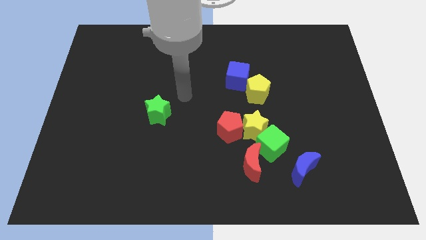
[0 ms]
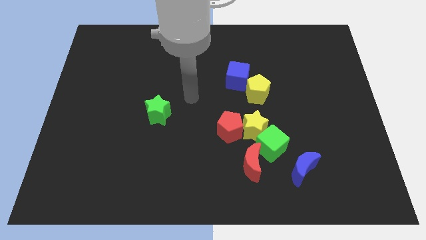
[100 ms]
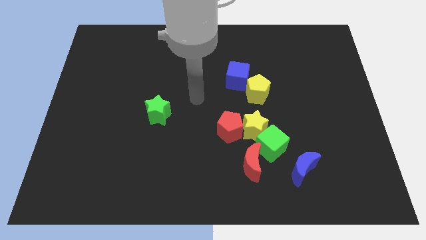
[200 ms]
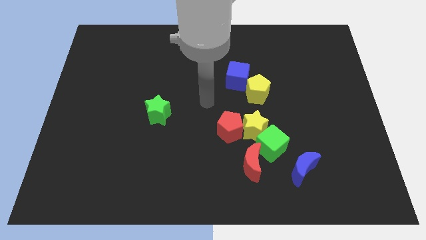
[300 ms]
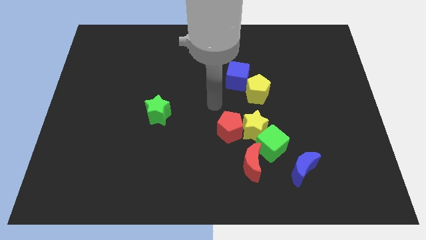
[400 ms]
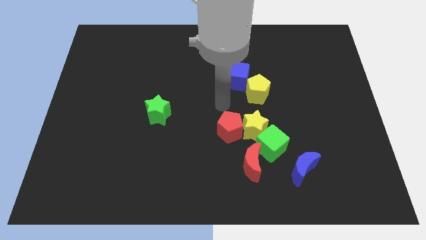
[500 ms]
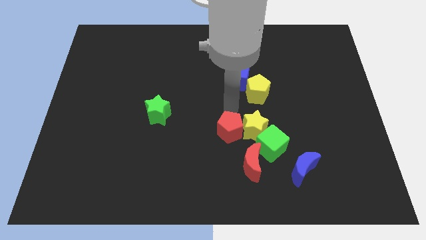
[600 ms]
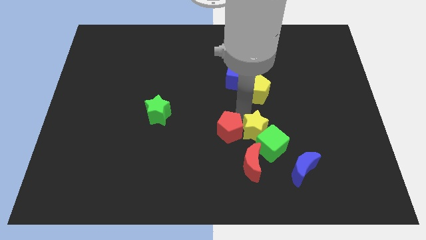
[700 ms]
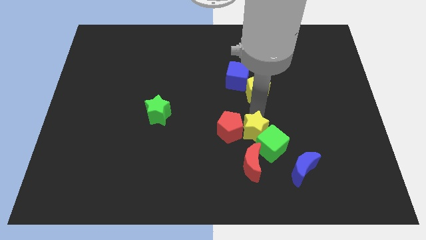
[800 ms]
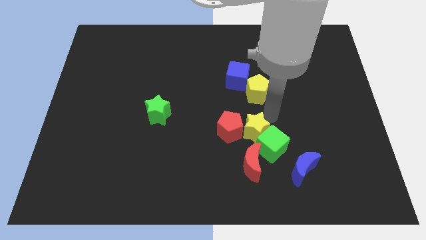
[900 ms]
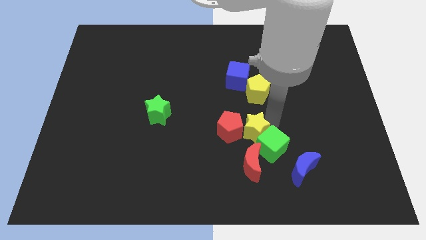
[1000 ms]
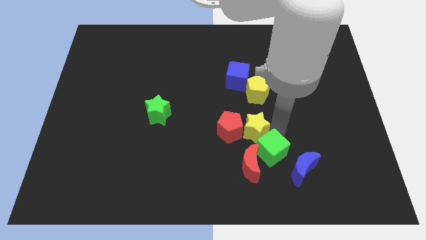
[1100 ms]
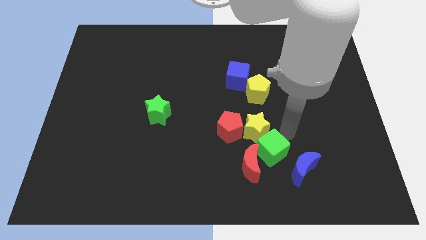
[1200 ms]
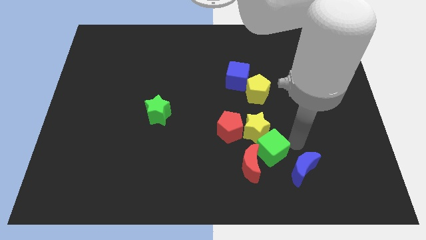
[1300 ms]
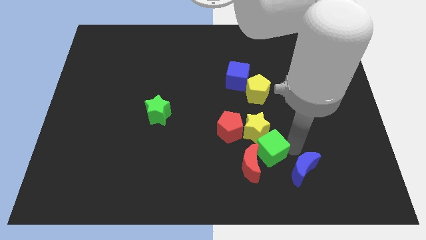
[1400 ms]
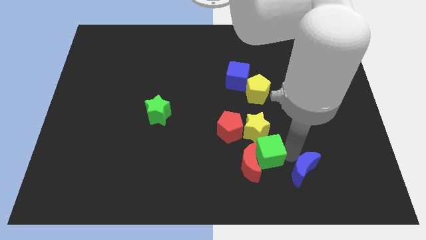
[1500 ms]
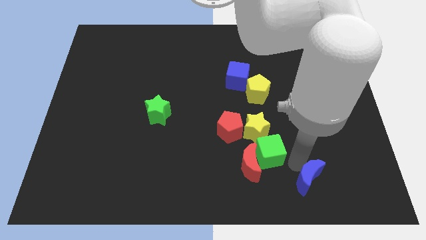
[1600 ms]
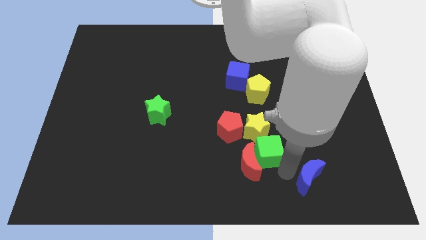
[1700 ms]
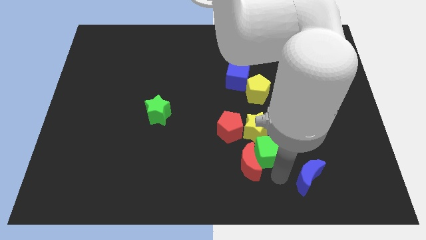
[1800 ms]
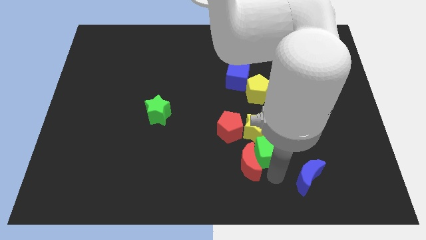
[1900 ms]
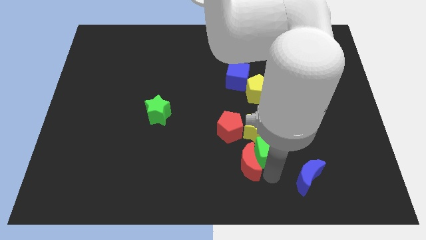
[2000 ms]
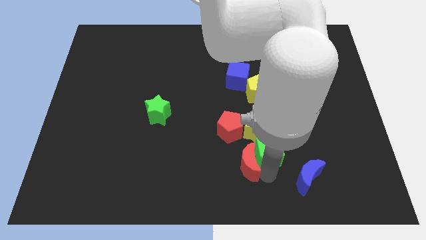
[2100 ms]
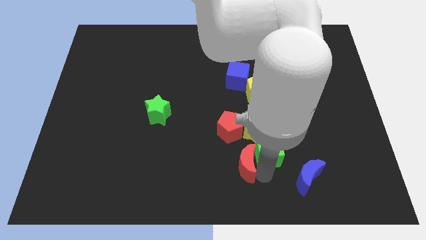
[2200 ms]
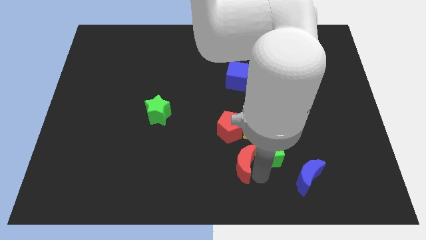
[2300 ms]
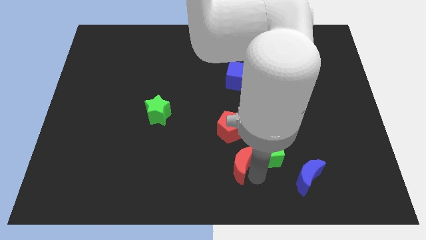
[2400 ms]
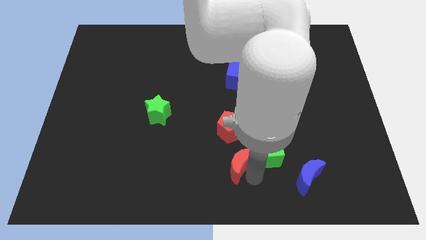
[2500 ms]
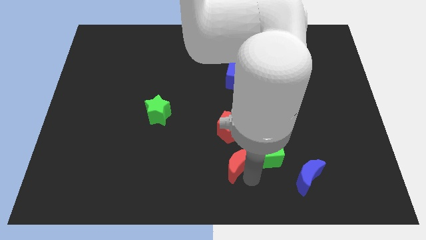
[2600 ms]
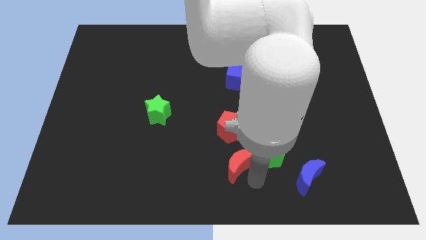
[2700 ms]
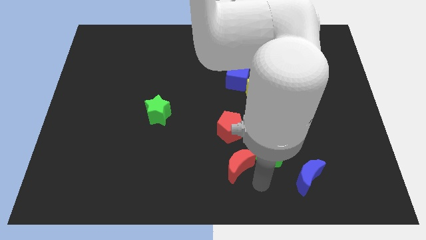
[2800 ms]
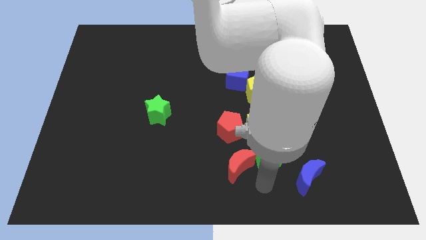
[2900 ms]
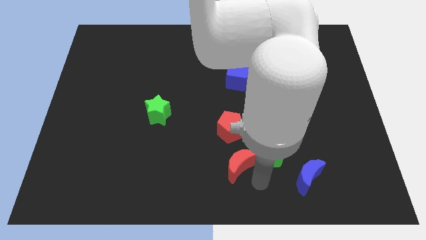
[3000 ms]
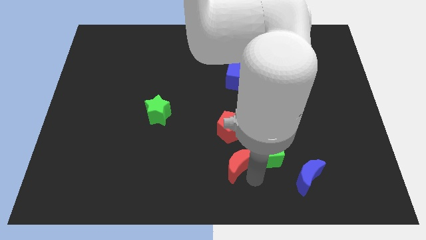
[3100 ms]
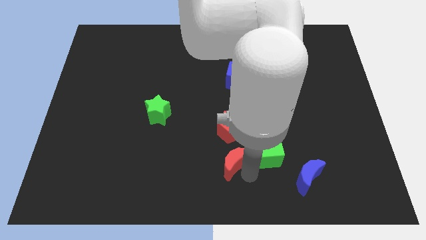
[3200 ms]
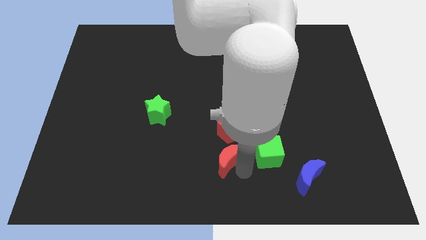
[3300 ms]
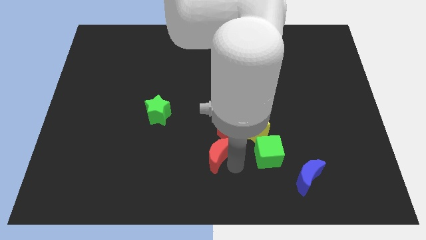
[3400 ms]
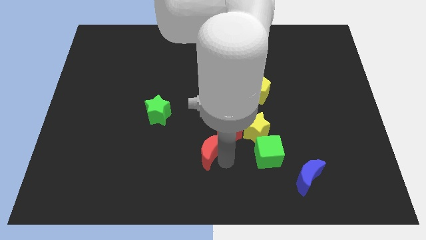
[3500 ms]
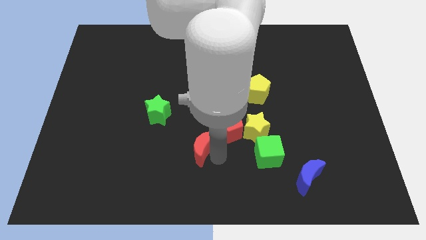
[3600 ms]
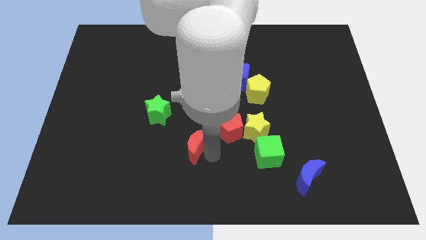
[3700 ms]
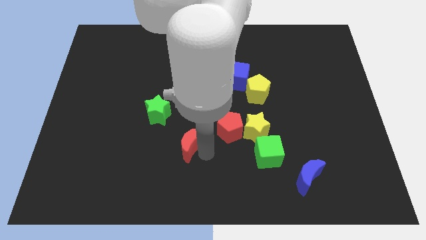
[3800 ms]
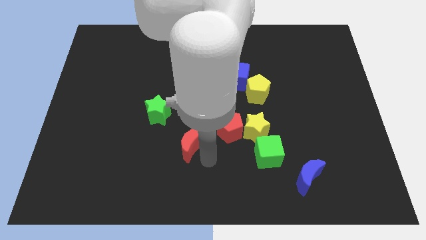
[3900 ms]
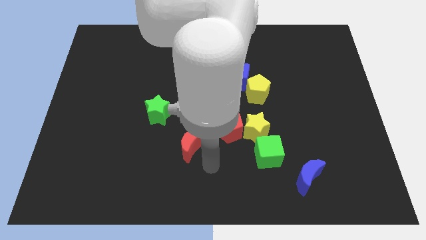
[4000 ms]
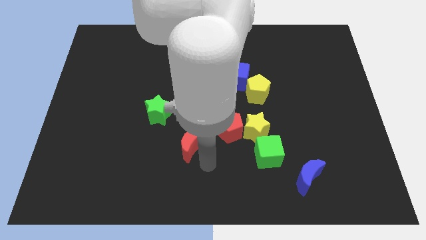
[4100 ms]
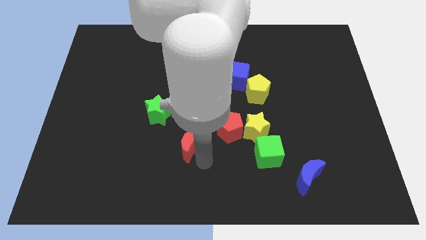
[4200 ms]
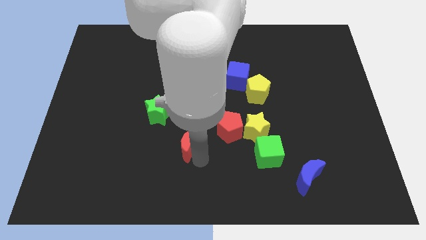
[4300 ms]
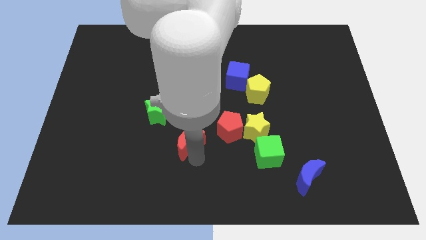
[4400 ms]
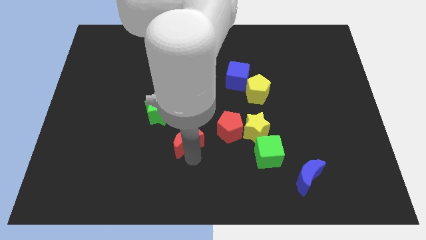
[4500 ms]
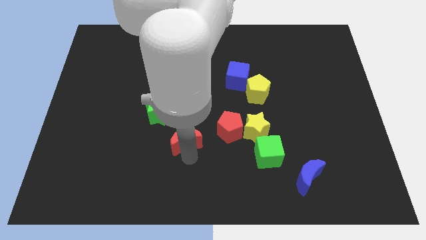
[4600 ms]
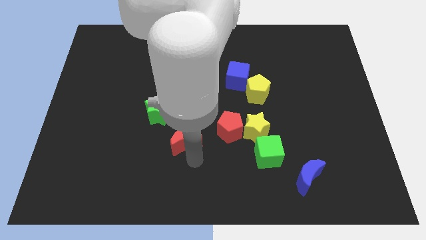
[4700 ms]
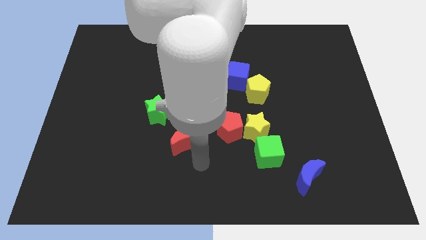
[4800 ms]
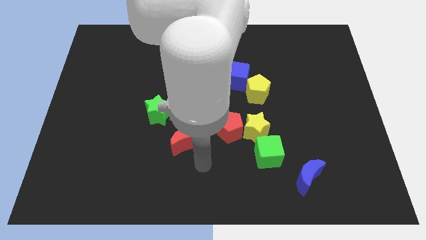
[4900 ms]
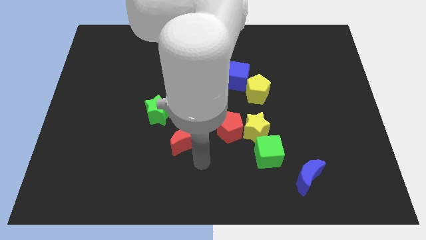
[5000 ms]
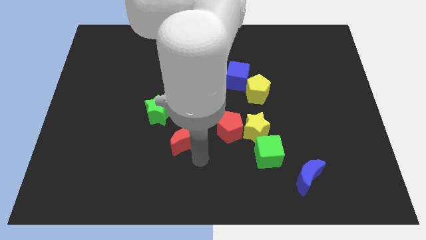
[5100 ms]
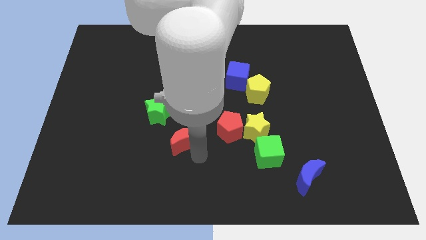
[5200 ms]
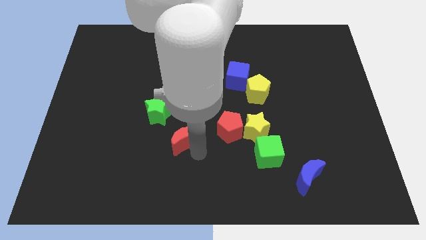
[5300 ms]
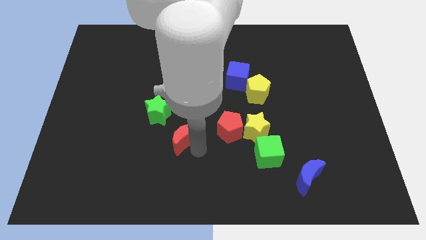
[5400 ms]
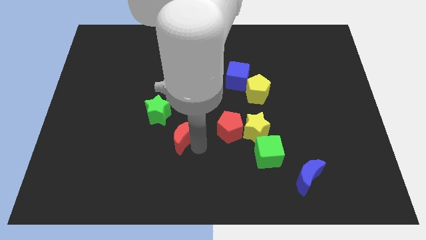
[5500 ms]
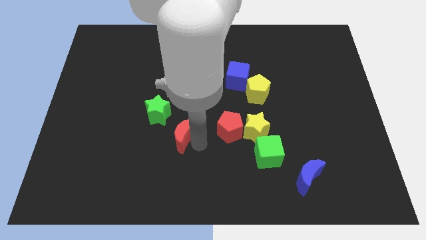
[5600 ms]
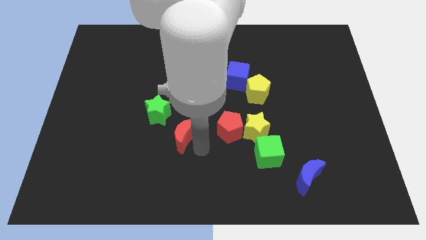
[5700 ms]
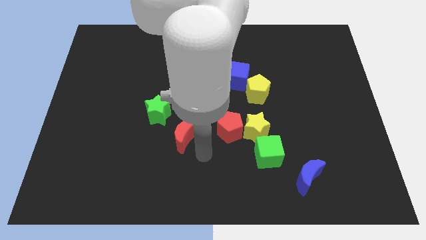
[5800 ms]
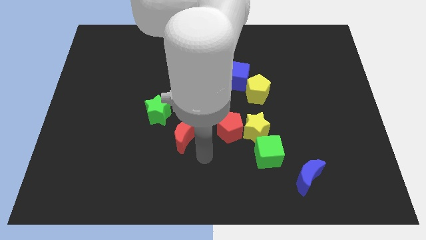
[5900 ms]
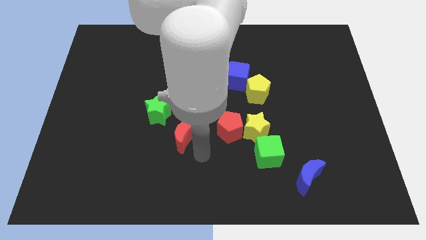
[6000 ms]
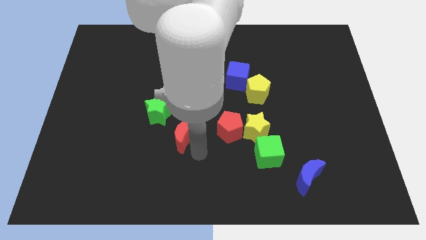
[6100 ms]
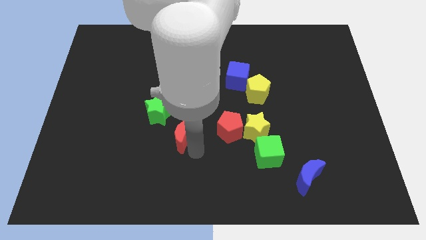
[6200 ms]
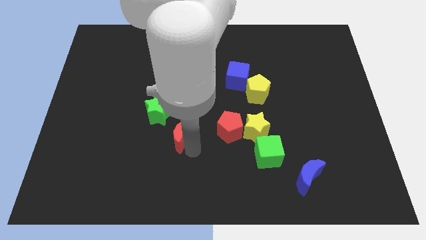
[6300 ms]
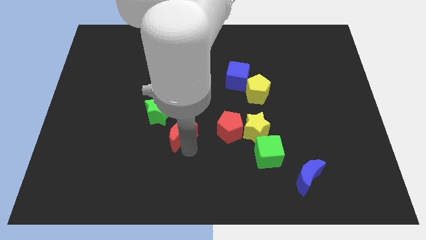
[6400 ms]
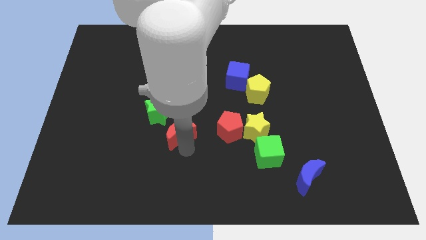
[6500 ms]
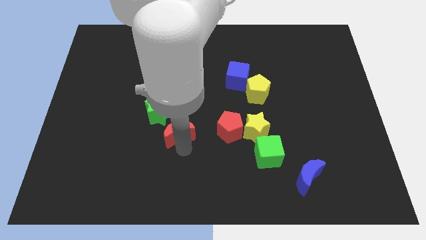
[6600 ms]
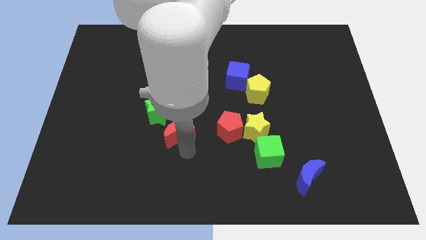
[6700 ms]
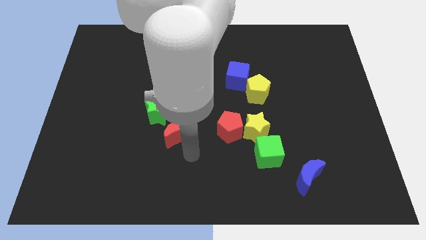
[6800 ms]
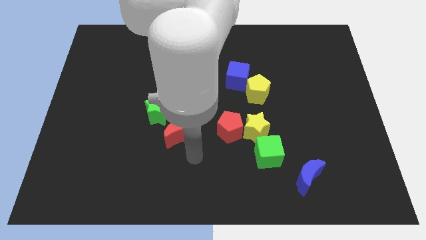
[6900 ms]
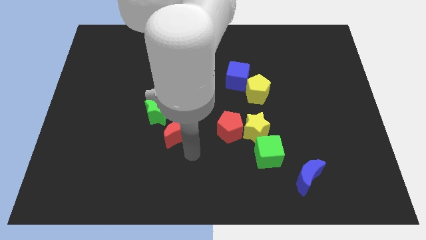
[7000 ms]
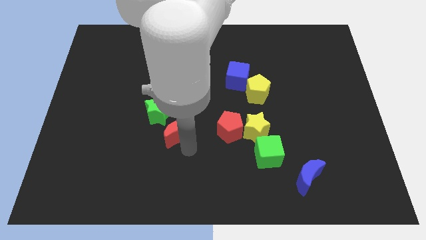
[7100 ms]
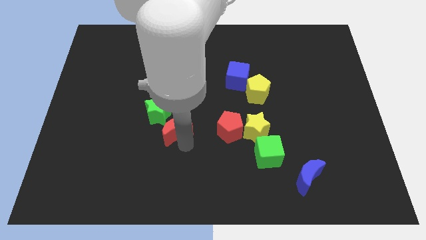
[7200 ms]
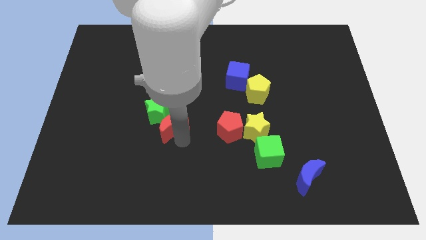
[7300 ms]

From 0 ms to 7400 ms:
slide the red moon to the green star
